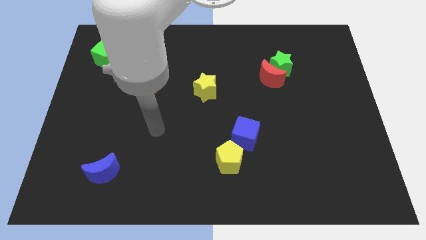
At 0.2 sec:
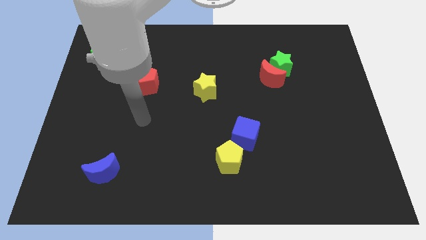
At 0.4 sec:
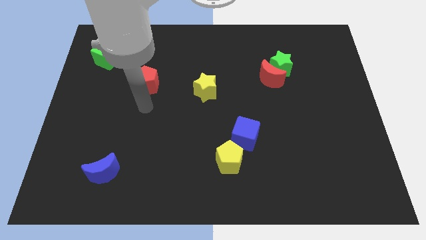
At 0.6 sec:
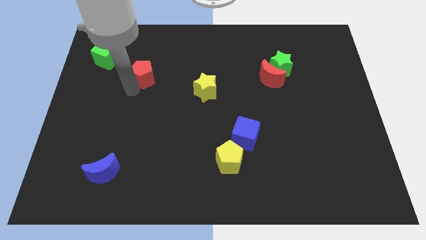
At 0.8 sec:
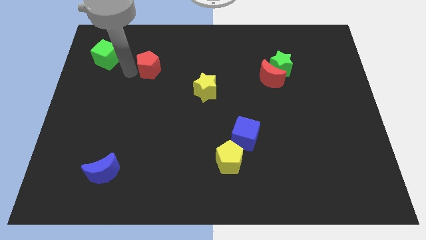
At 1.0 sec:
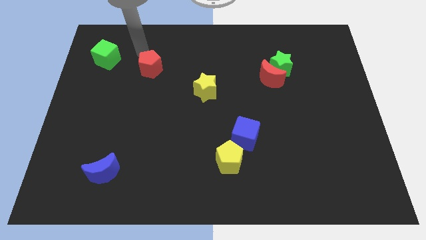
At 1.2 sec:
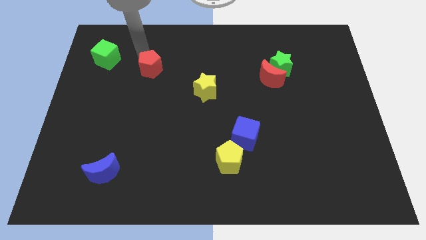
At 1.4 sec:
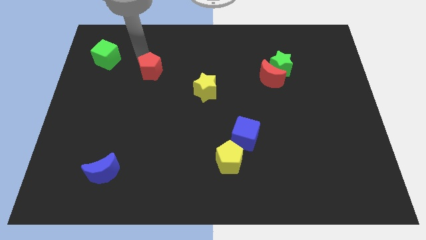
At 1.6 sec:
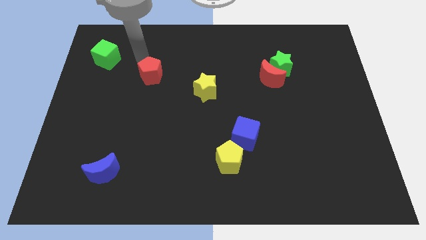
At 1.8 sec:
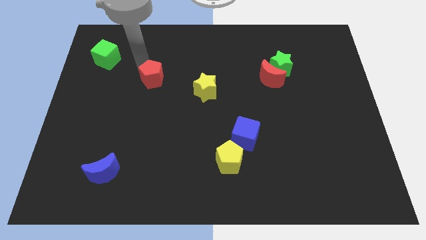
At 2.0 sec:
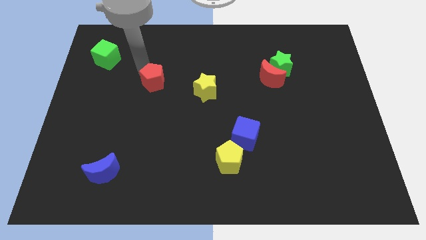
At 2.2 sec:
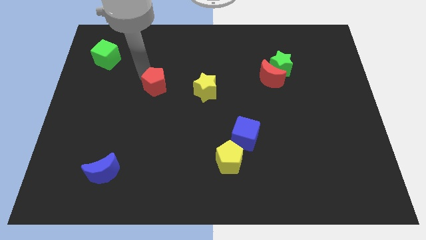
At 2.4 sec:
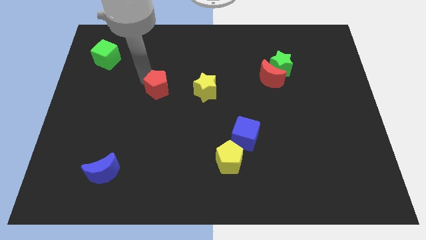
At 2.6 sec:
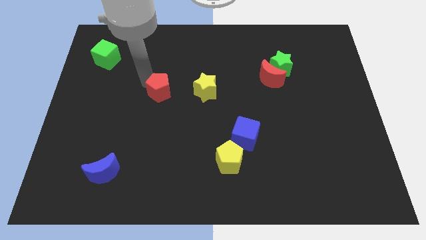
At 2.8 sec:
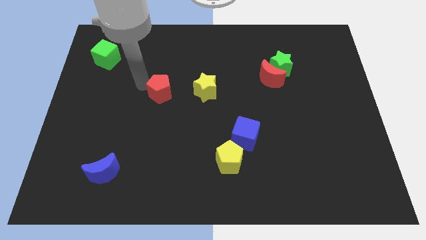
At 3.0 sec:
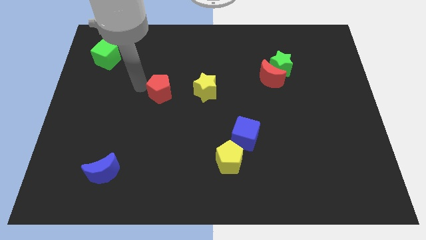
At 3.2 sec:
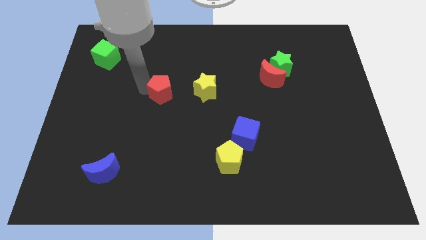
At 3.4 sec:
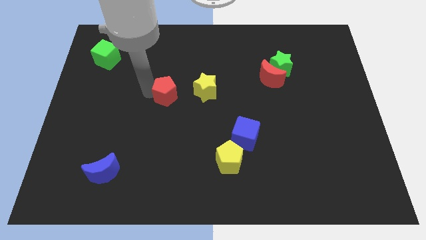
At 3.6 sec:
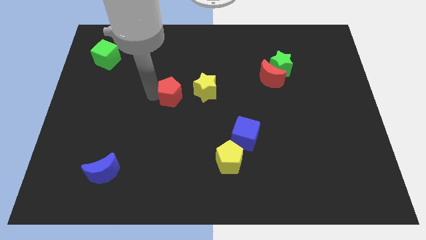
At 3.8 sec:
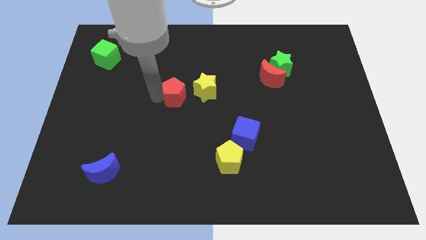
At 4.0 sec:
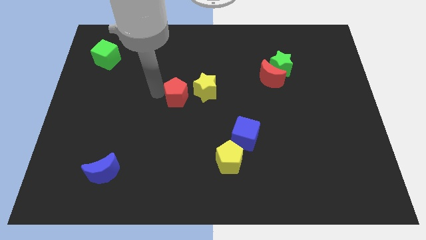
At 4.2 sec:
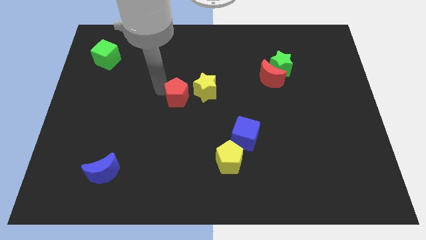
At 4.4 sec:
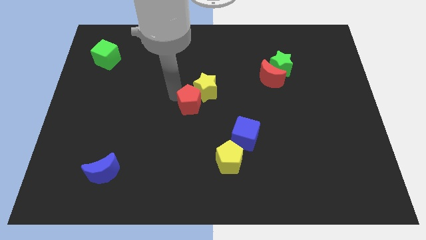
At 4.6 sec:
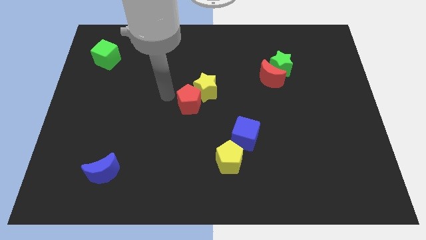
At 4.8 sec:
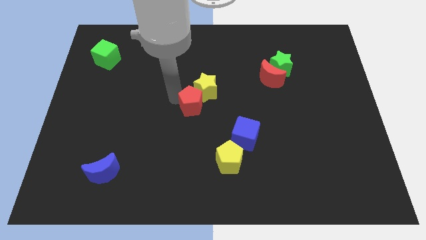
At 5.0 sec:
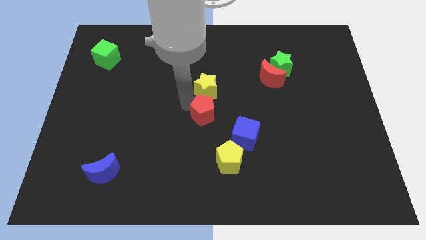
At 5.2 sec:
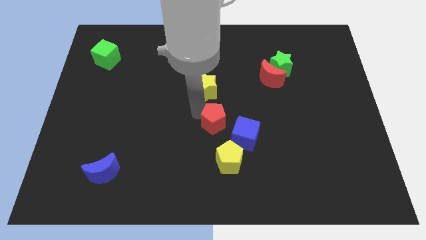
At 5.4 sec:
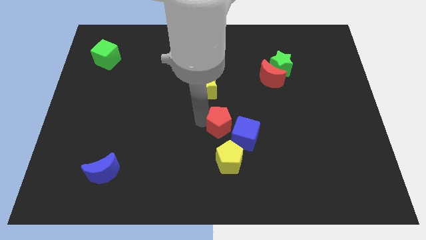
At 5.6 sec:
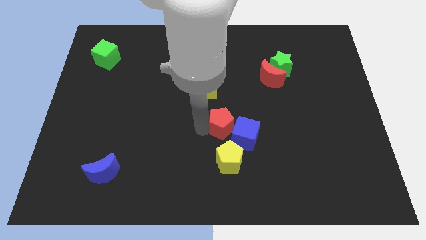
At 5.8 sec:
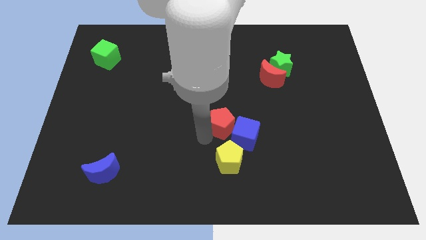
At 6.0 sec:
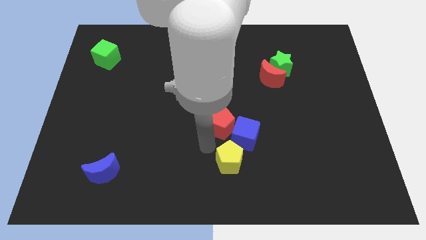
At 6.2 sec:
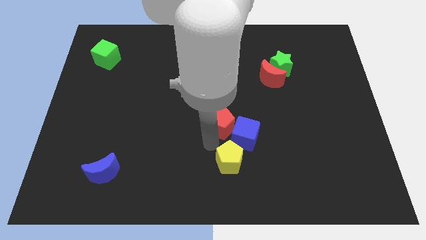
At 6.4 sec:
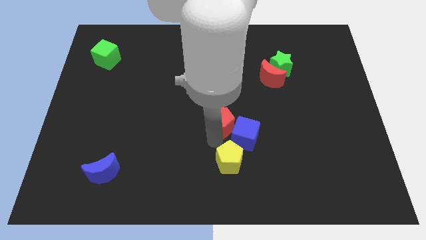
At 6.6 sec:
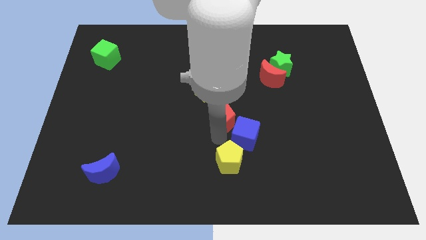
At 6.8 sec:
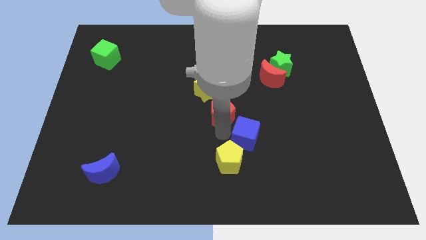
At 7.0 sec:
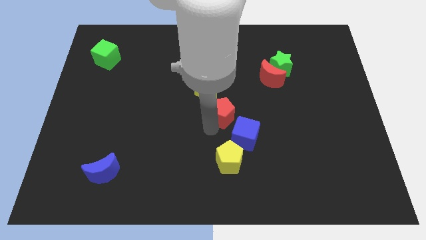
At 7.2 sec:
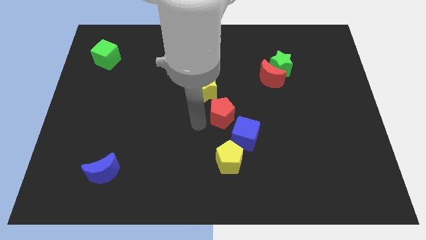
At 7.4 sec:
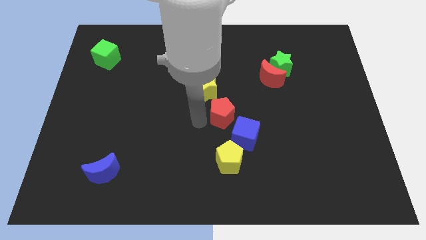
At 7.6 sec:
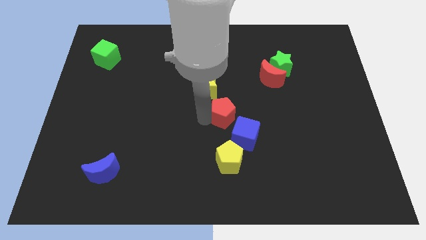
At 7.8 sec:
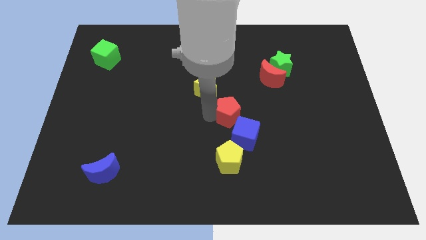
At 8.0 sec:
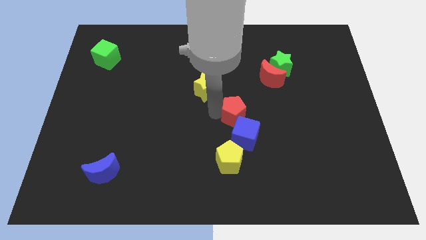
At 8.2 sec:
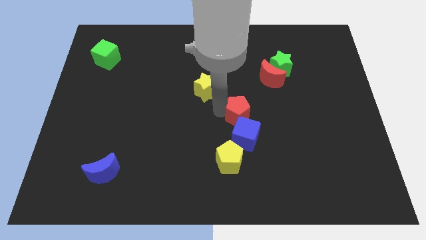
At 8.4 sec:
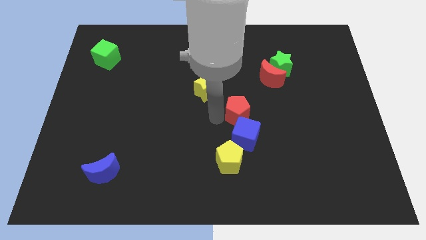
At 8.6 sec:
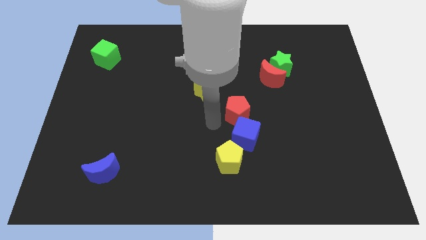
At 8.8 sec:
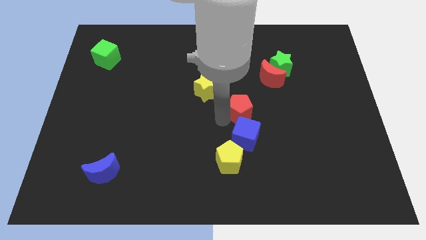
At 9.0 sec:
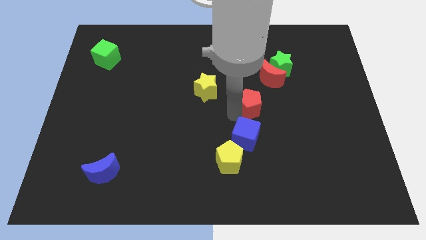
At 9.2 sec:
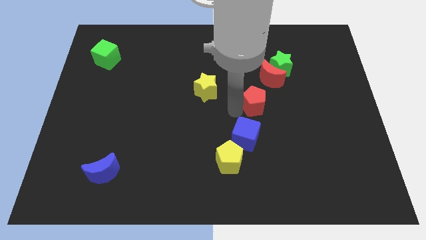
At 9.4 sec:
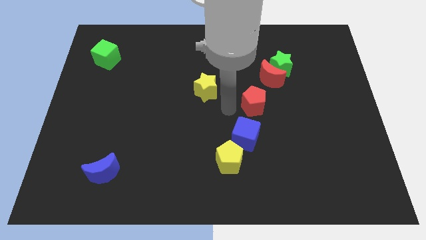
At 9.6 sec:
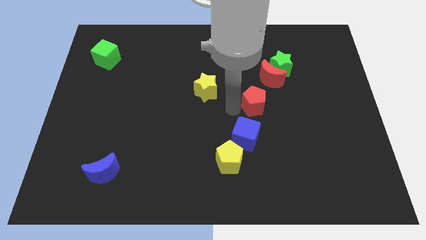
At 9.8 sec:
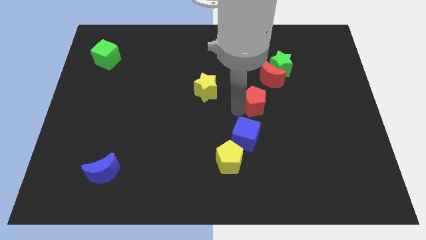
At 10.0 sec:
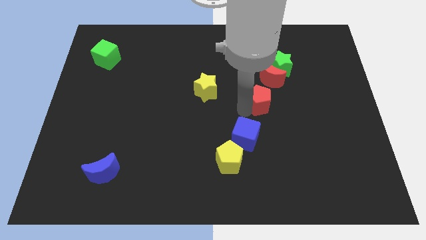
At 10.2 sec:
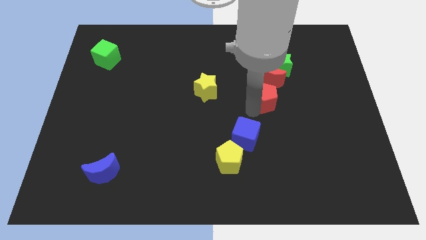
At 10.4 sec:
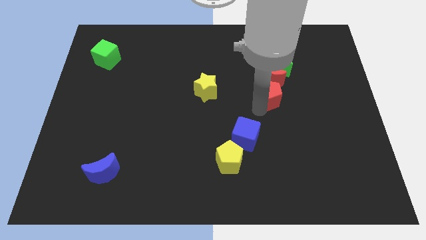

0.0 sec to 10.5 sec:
push the red pentagon to the bottom right of the red moon

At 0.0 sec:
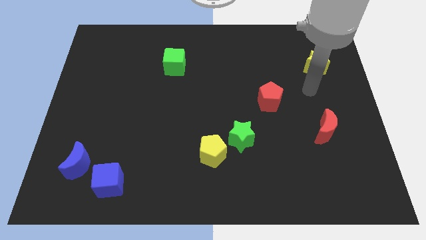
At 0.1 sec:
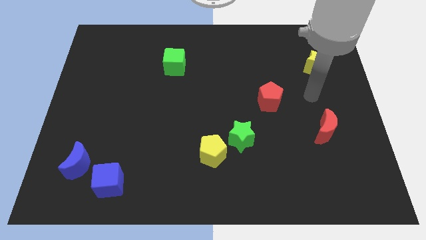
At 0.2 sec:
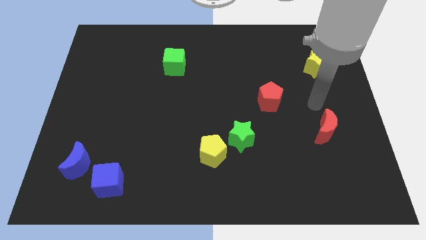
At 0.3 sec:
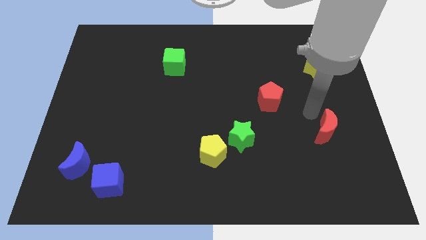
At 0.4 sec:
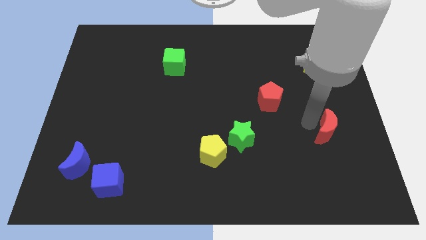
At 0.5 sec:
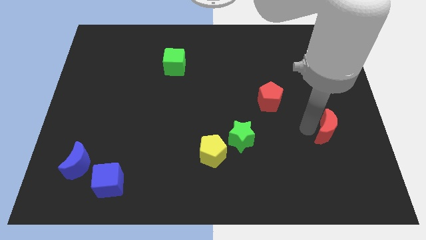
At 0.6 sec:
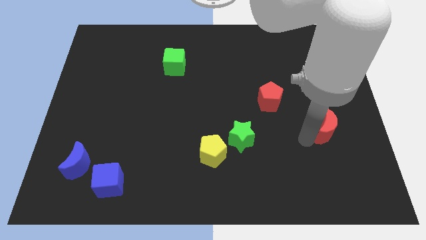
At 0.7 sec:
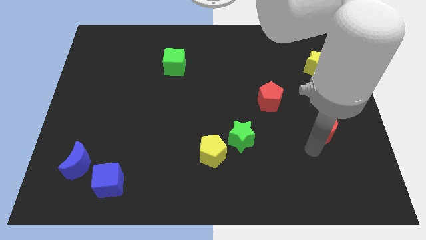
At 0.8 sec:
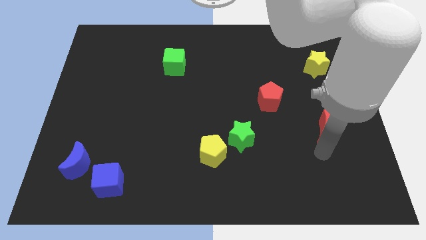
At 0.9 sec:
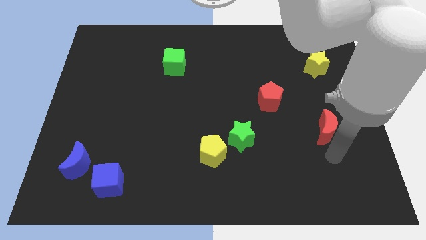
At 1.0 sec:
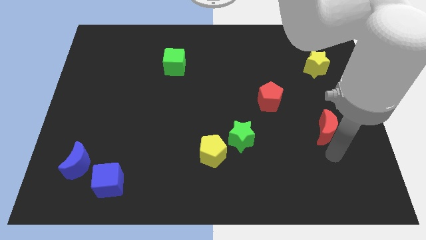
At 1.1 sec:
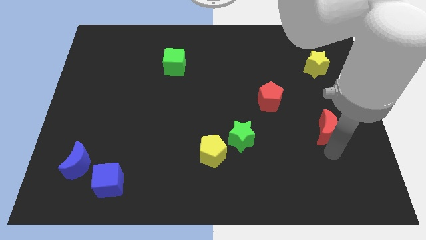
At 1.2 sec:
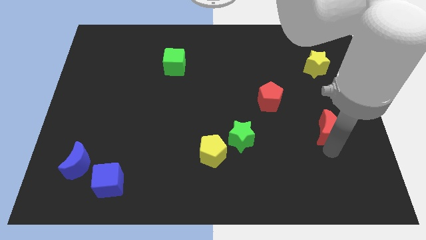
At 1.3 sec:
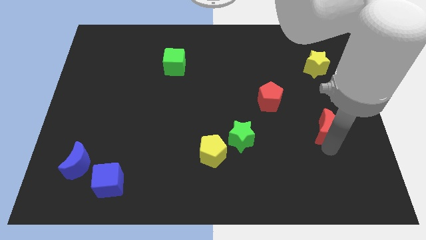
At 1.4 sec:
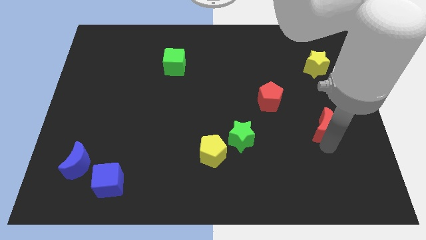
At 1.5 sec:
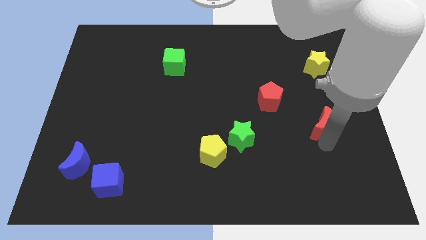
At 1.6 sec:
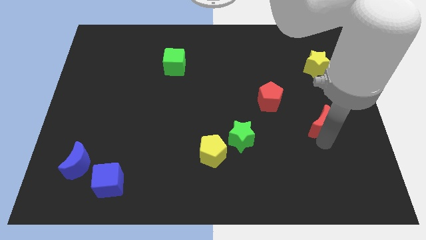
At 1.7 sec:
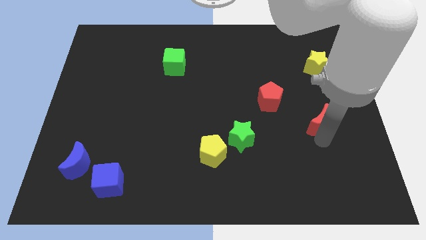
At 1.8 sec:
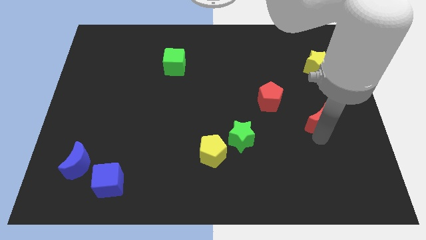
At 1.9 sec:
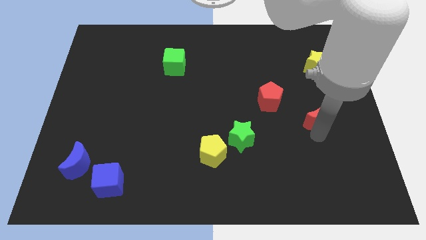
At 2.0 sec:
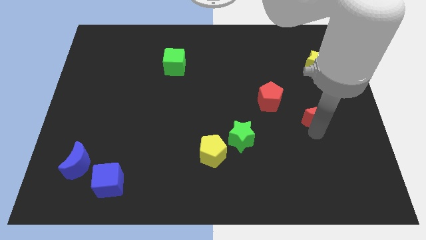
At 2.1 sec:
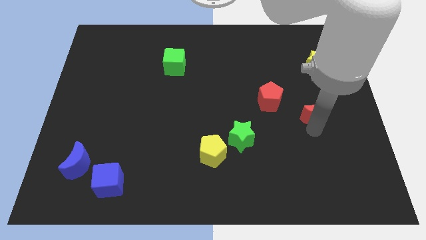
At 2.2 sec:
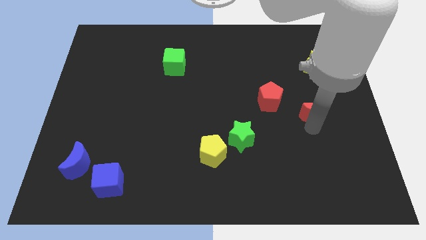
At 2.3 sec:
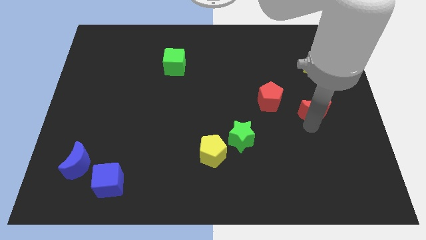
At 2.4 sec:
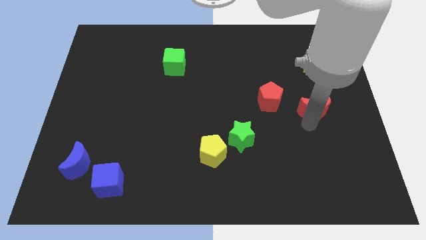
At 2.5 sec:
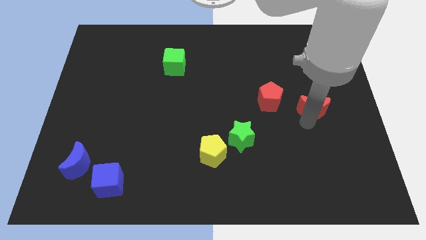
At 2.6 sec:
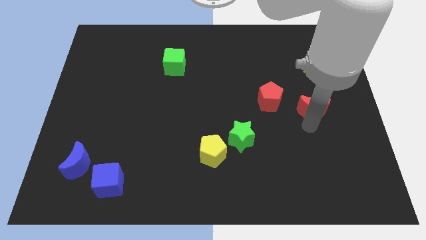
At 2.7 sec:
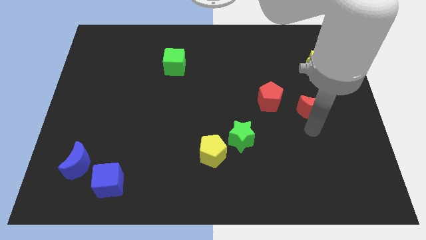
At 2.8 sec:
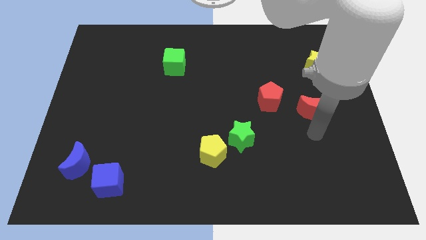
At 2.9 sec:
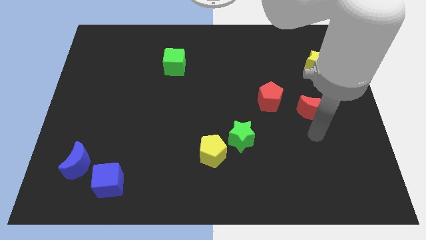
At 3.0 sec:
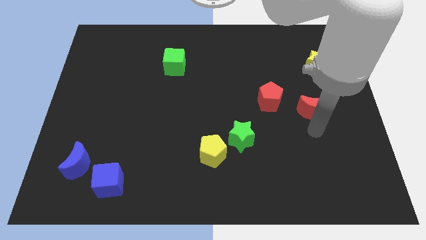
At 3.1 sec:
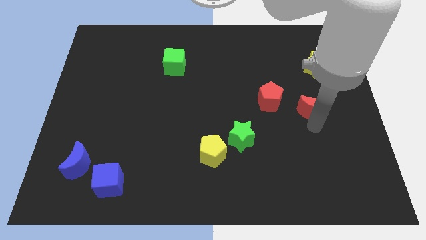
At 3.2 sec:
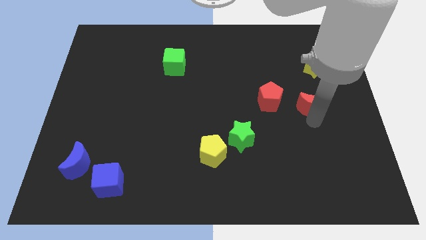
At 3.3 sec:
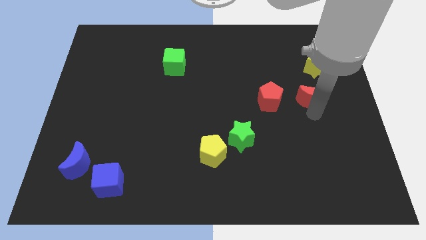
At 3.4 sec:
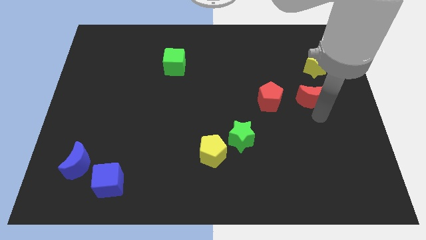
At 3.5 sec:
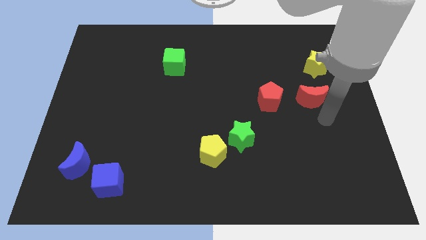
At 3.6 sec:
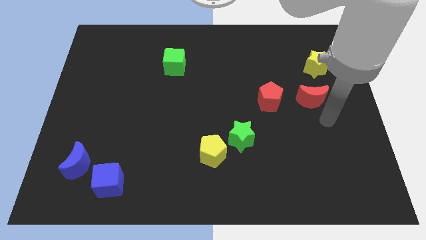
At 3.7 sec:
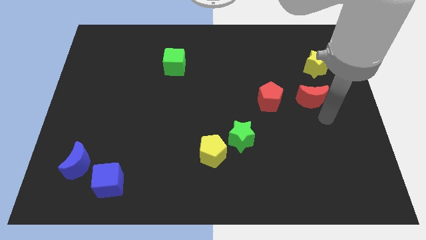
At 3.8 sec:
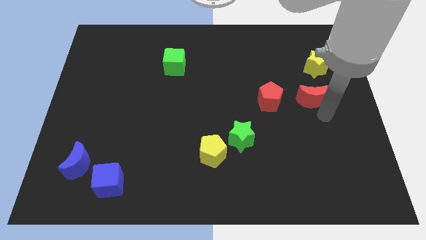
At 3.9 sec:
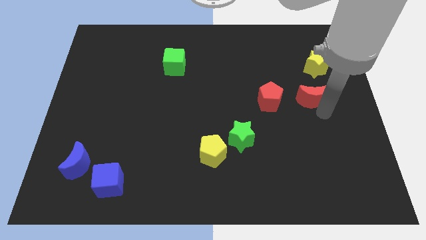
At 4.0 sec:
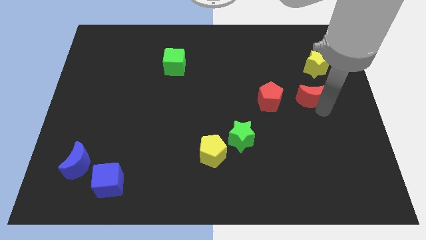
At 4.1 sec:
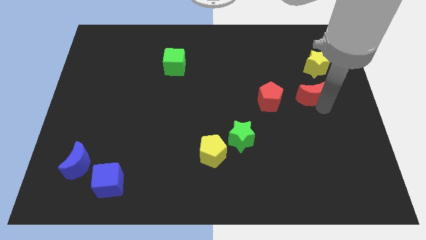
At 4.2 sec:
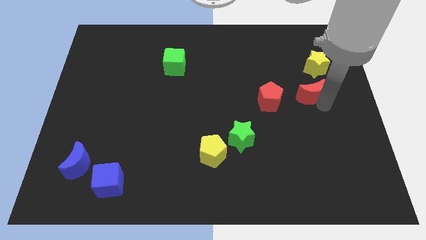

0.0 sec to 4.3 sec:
slide the red moon diagonally down and to the left of the yellow star
